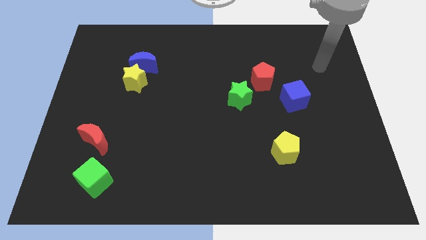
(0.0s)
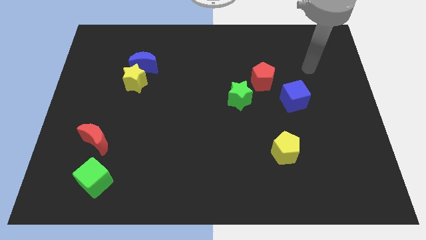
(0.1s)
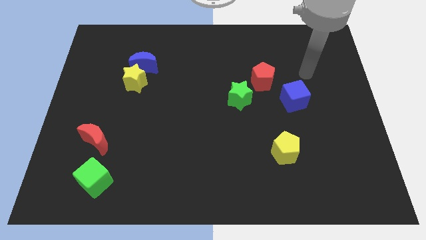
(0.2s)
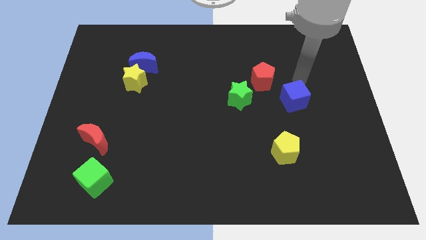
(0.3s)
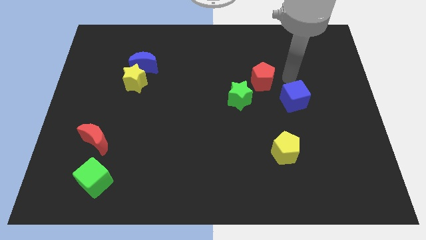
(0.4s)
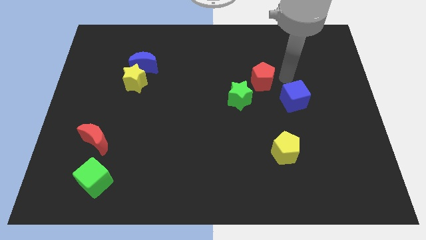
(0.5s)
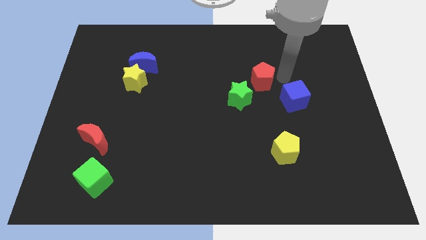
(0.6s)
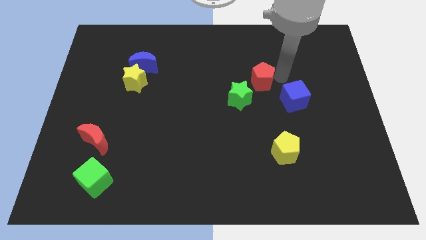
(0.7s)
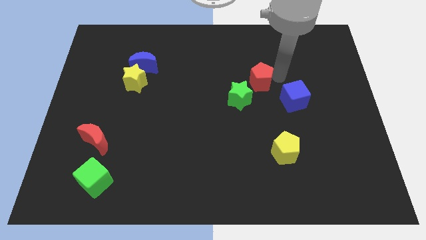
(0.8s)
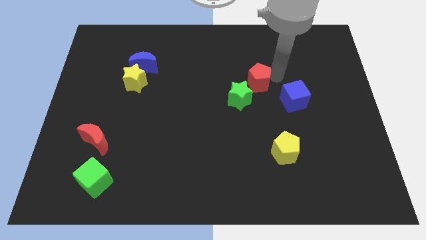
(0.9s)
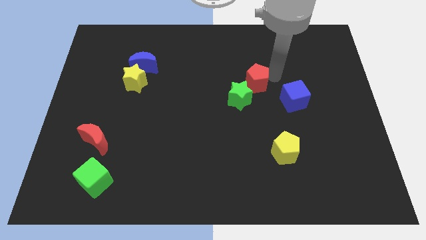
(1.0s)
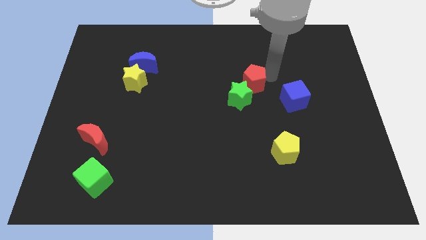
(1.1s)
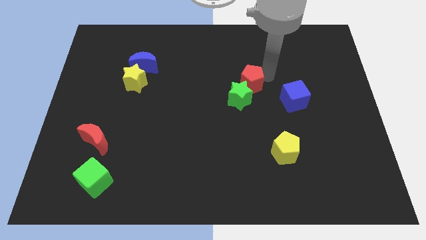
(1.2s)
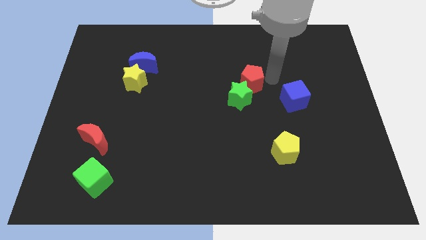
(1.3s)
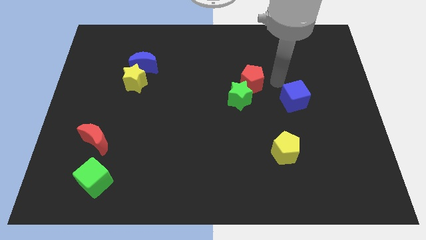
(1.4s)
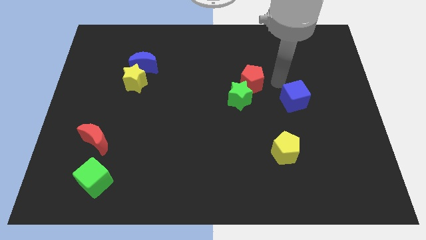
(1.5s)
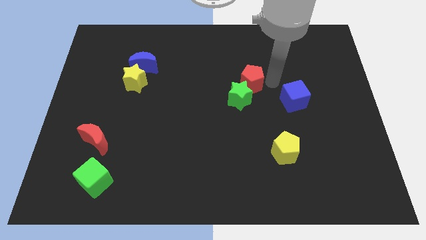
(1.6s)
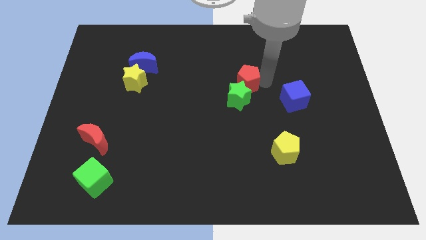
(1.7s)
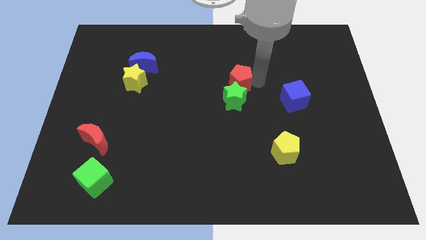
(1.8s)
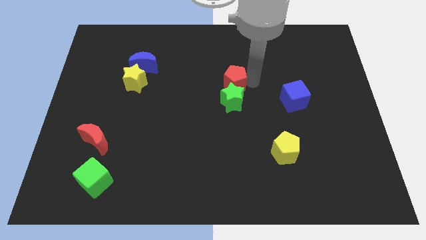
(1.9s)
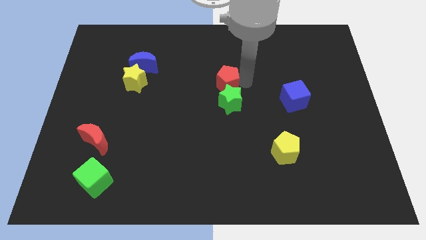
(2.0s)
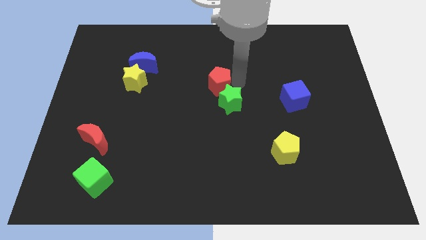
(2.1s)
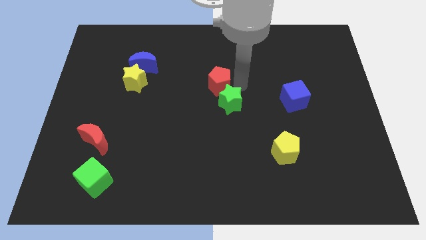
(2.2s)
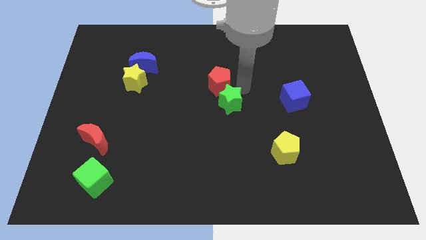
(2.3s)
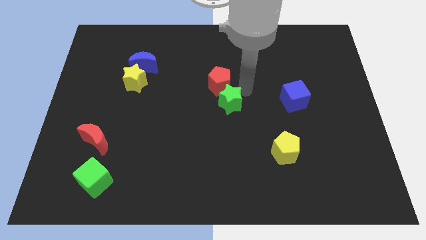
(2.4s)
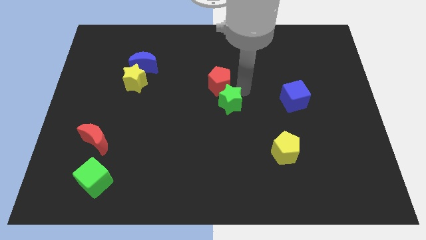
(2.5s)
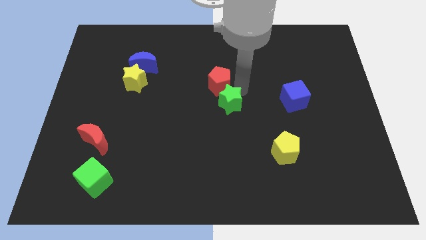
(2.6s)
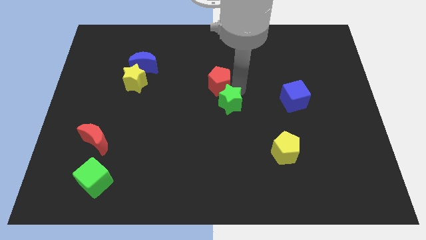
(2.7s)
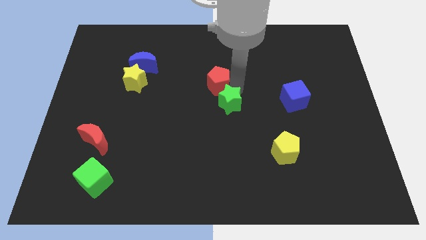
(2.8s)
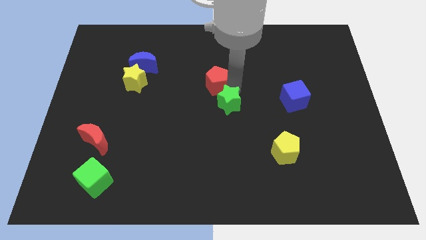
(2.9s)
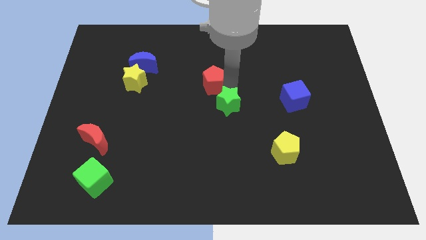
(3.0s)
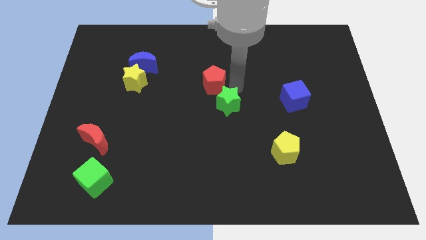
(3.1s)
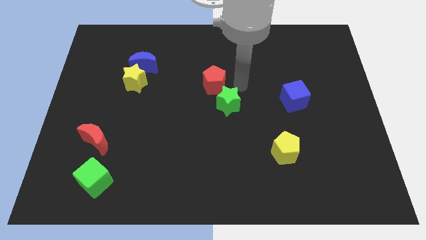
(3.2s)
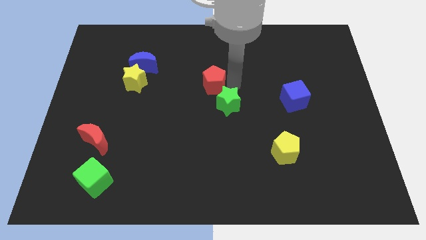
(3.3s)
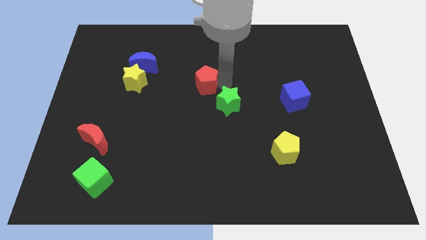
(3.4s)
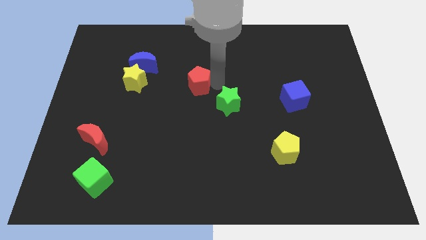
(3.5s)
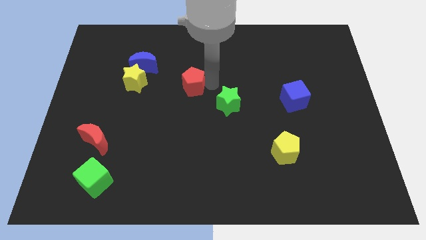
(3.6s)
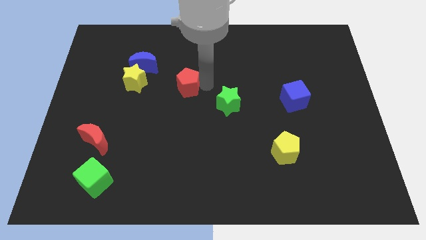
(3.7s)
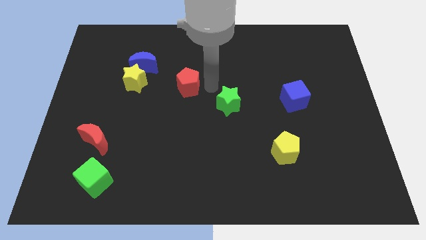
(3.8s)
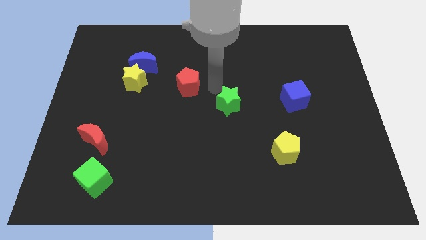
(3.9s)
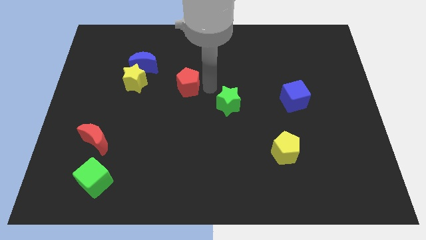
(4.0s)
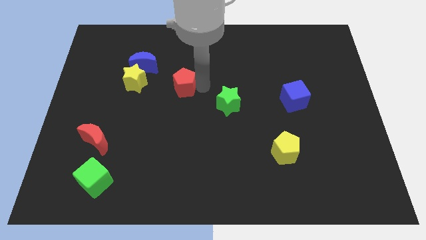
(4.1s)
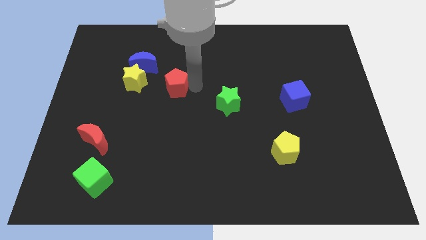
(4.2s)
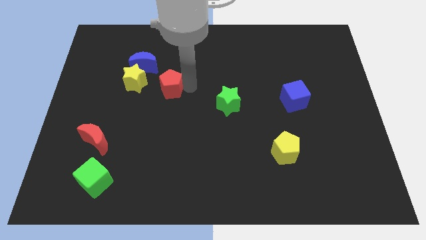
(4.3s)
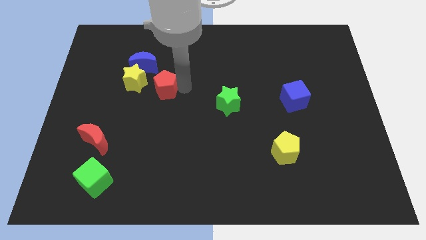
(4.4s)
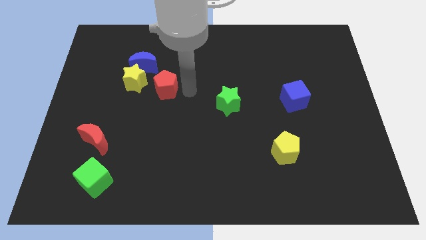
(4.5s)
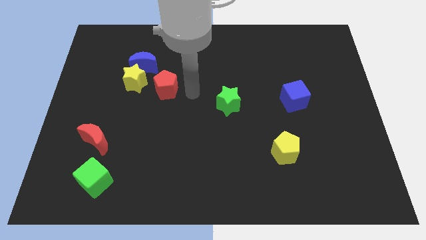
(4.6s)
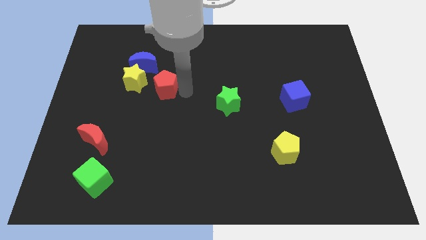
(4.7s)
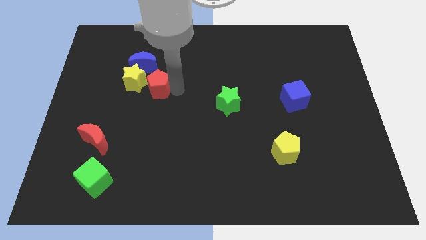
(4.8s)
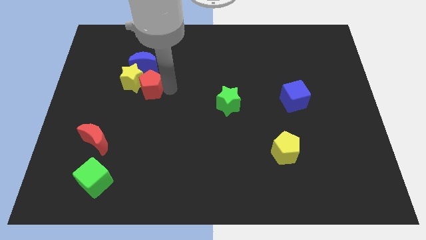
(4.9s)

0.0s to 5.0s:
put the red pentagon next to the yellow star

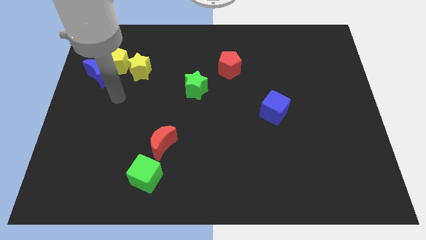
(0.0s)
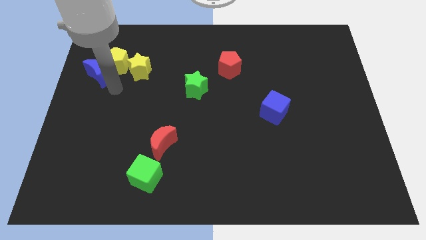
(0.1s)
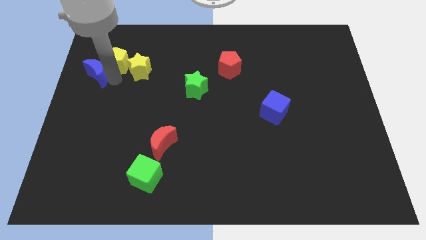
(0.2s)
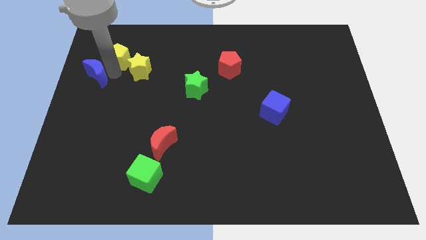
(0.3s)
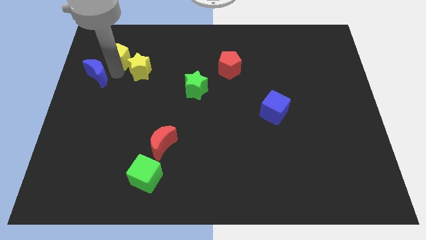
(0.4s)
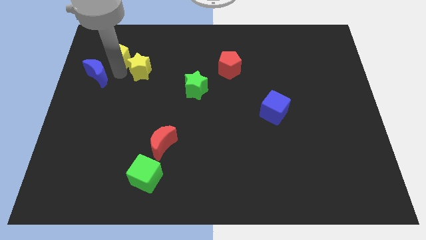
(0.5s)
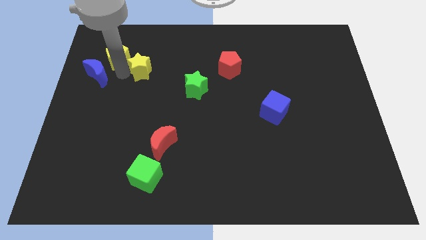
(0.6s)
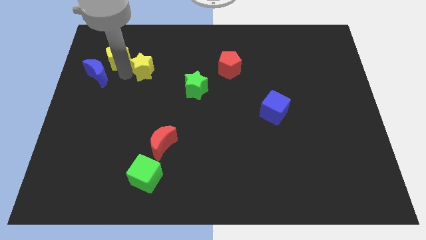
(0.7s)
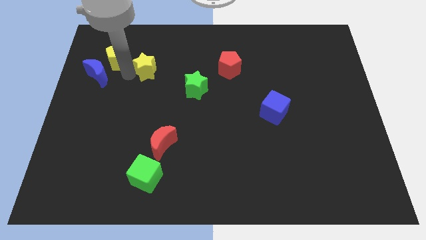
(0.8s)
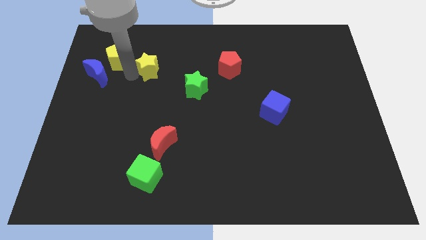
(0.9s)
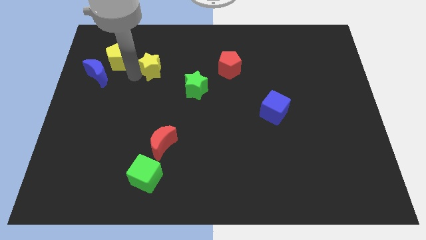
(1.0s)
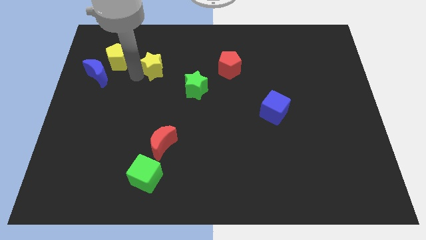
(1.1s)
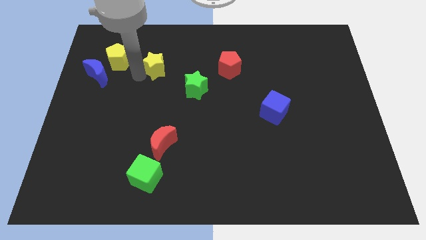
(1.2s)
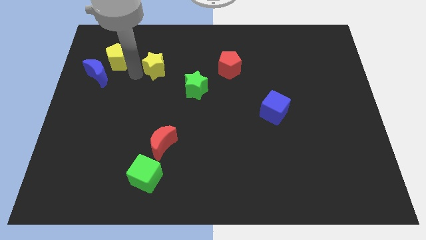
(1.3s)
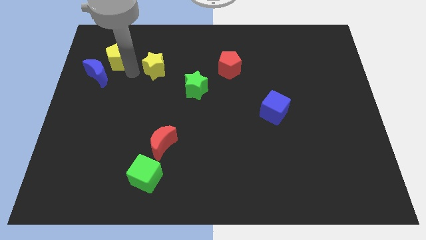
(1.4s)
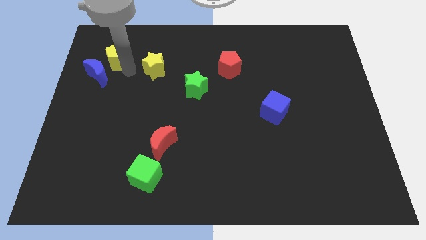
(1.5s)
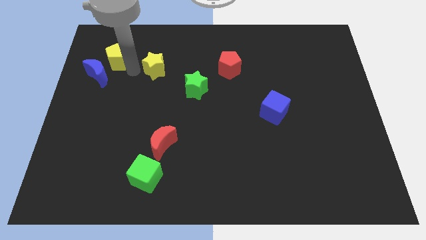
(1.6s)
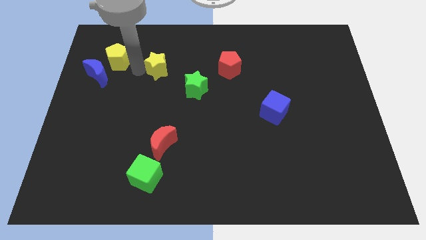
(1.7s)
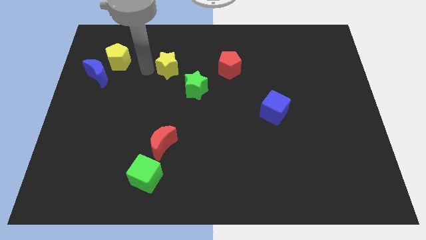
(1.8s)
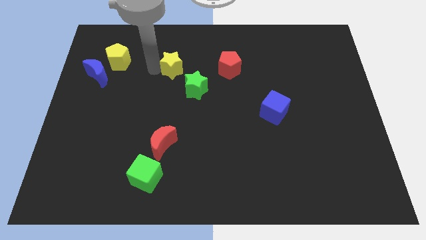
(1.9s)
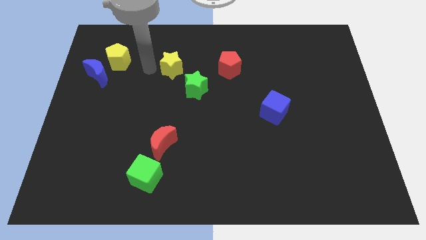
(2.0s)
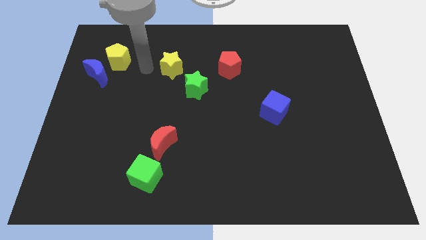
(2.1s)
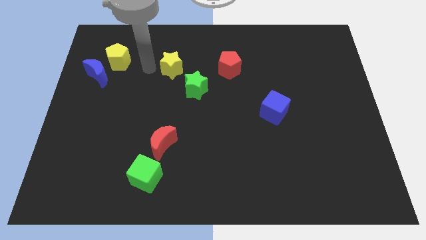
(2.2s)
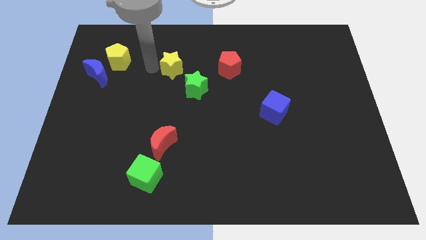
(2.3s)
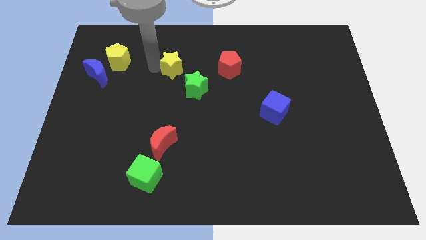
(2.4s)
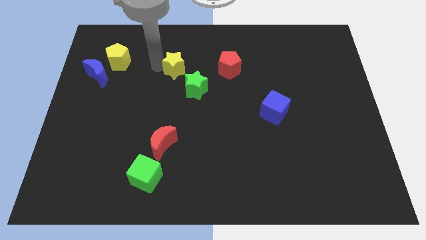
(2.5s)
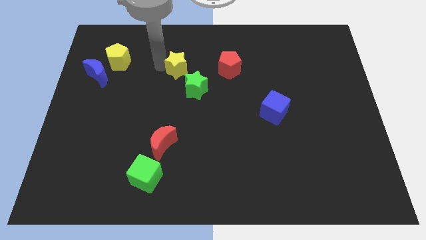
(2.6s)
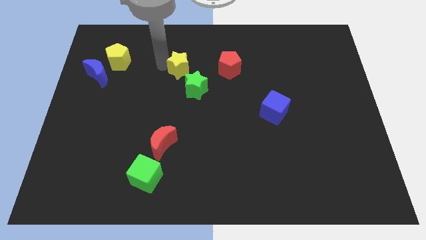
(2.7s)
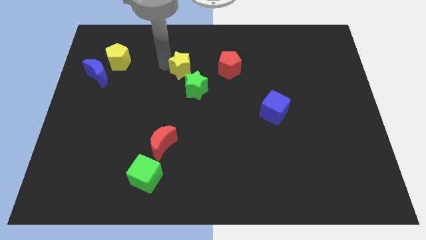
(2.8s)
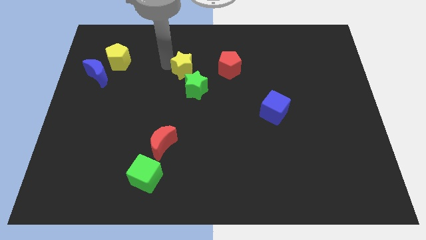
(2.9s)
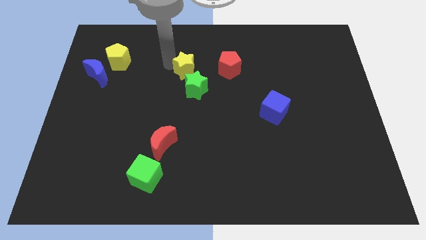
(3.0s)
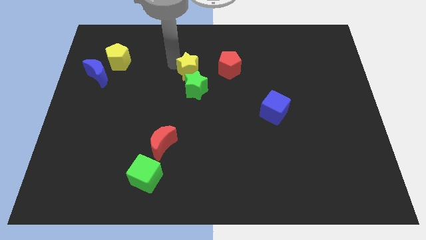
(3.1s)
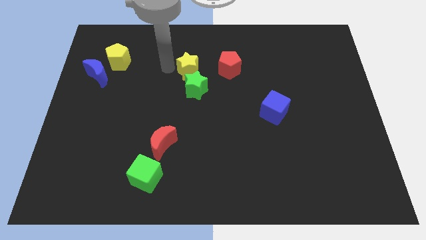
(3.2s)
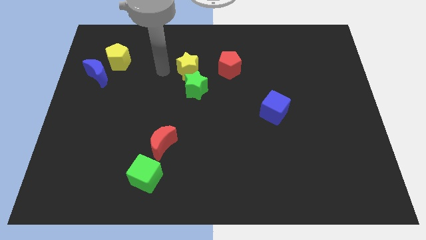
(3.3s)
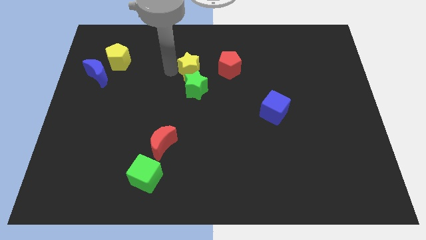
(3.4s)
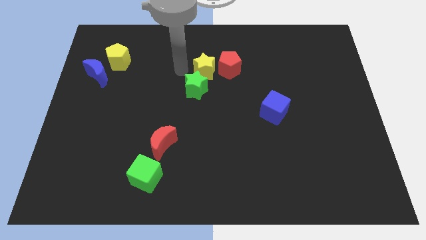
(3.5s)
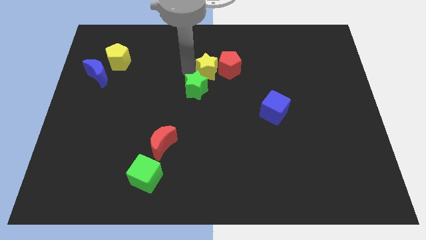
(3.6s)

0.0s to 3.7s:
slide the yellow star to the red pentagon
